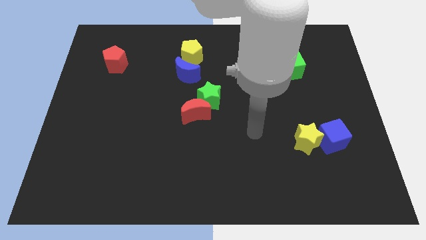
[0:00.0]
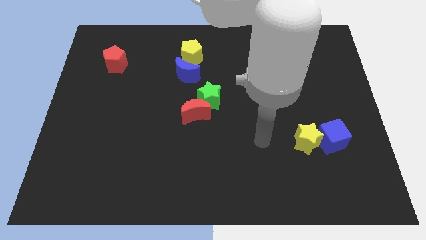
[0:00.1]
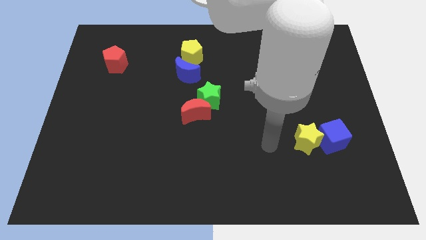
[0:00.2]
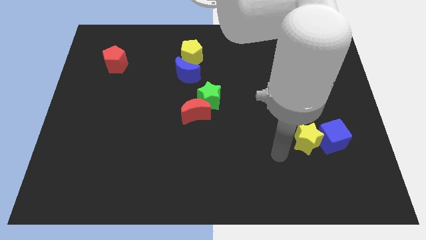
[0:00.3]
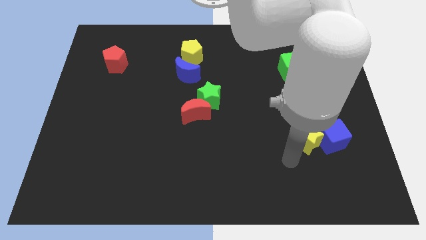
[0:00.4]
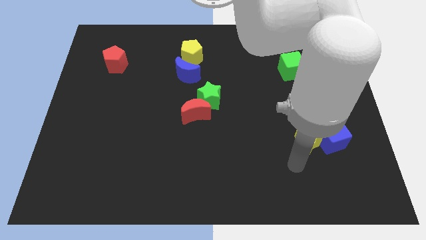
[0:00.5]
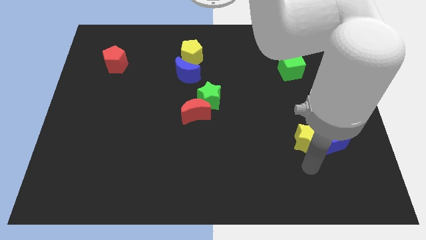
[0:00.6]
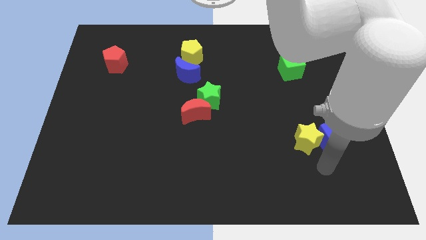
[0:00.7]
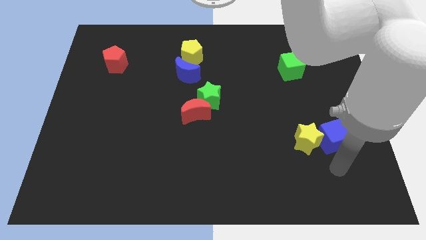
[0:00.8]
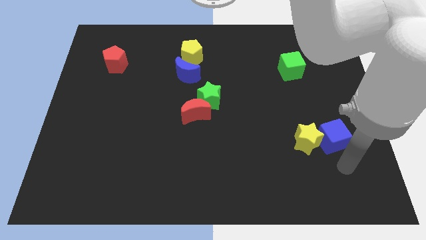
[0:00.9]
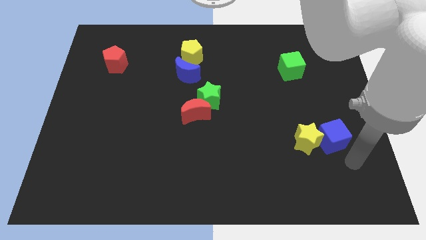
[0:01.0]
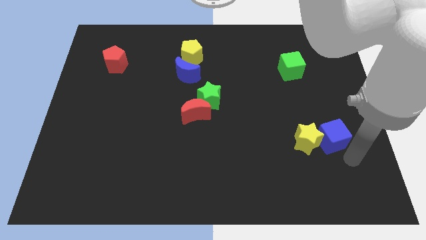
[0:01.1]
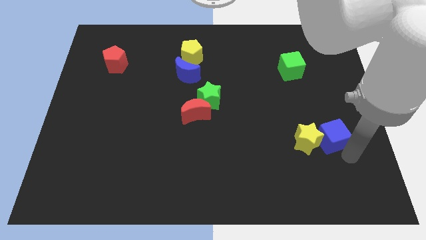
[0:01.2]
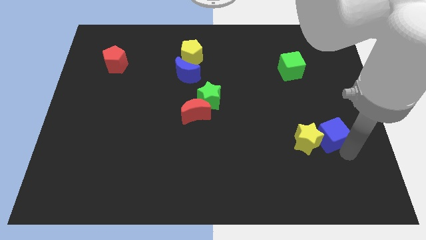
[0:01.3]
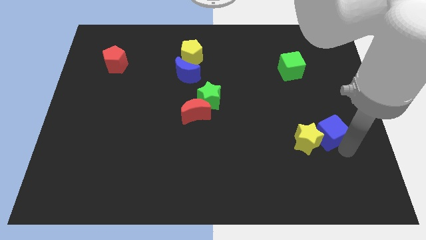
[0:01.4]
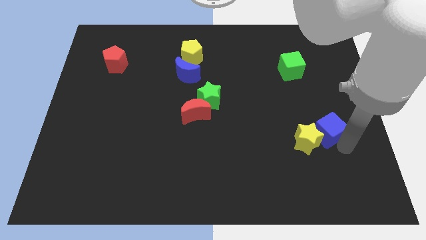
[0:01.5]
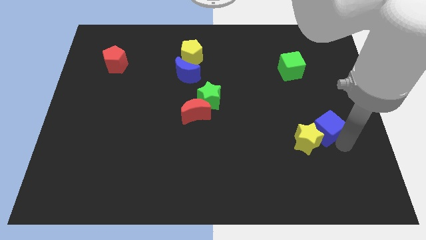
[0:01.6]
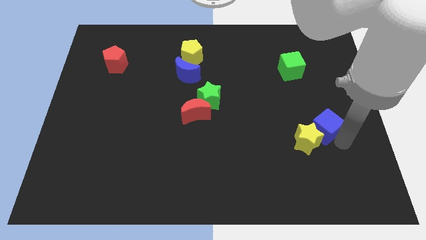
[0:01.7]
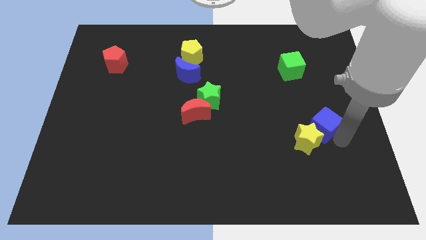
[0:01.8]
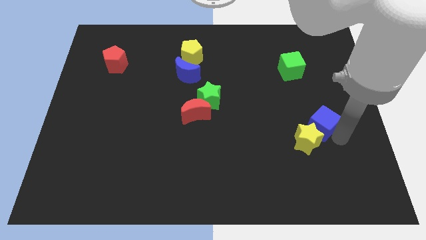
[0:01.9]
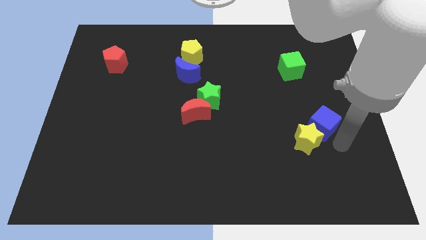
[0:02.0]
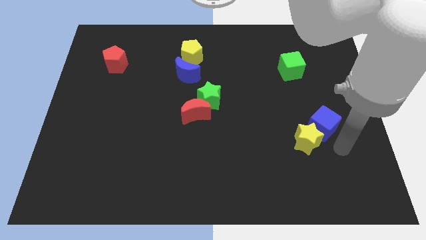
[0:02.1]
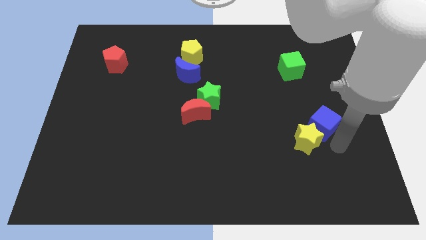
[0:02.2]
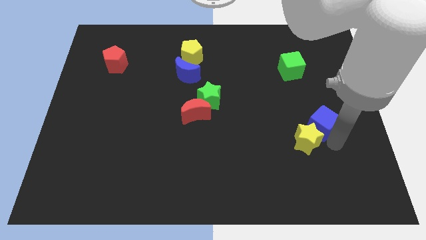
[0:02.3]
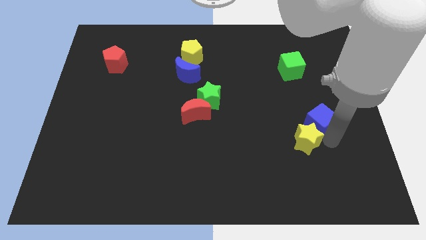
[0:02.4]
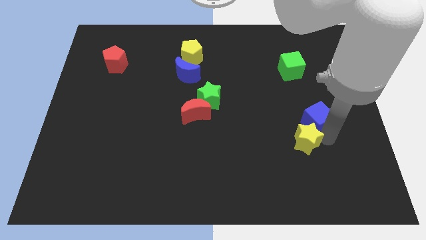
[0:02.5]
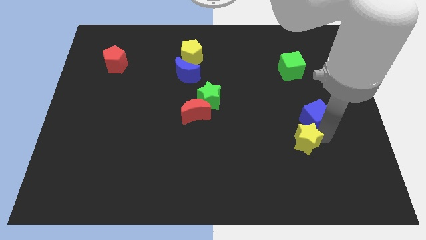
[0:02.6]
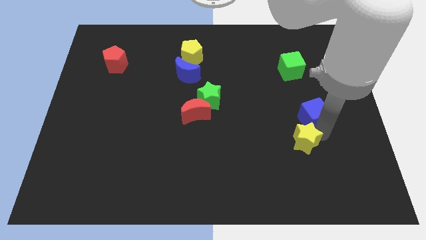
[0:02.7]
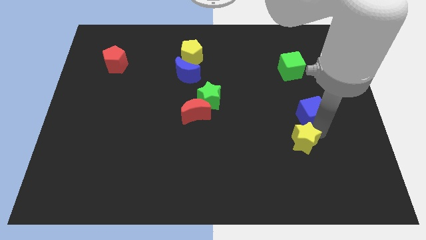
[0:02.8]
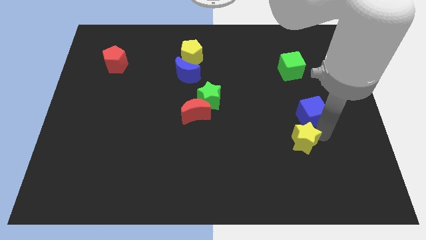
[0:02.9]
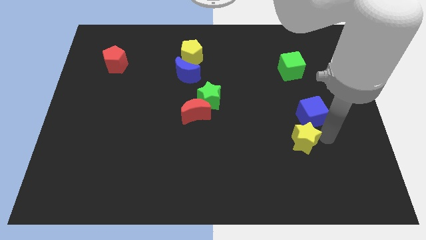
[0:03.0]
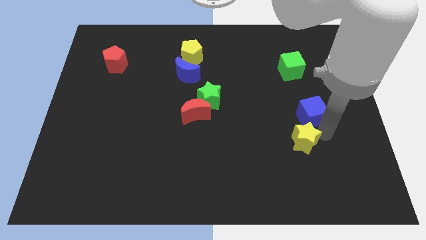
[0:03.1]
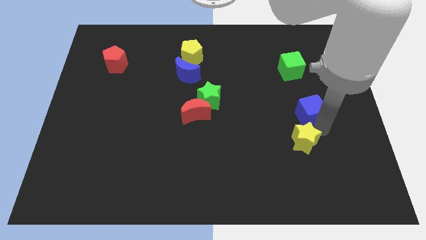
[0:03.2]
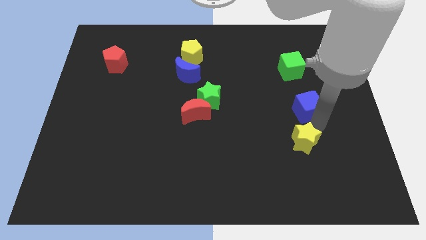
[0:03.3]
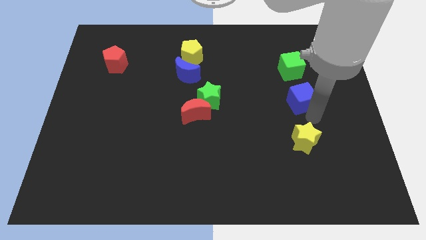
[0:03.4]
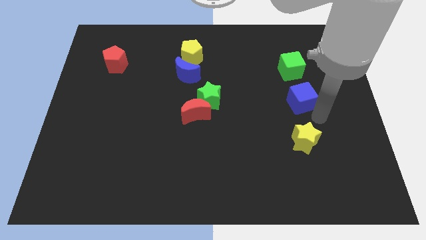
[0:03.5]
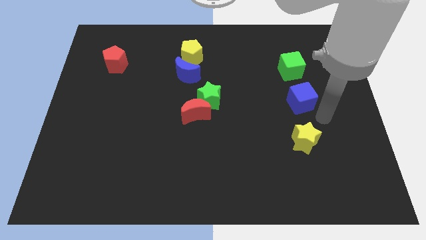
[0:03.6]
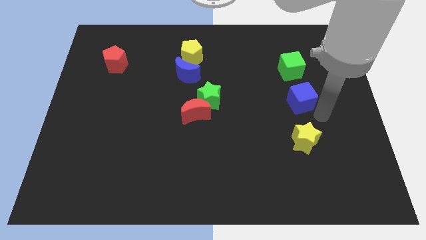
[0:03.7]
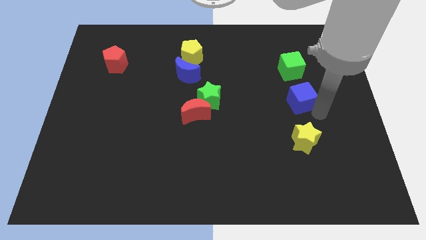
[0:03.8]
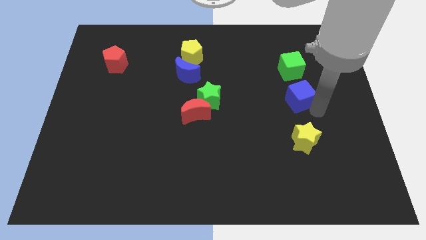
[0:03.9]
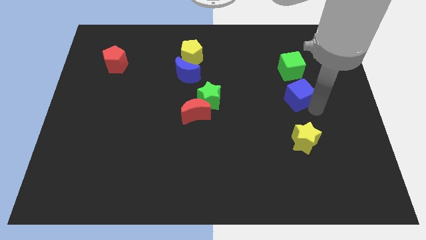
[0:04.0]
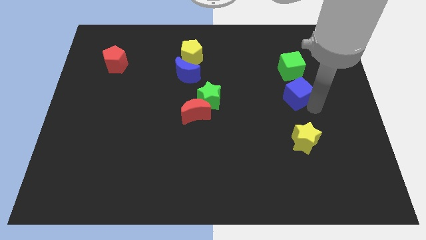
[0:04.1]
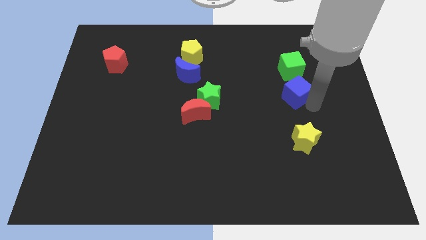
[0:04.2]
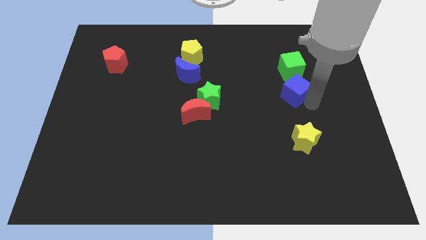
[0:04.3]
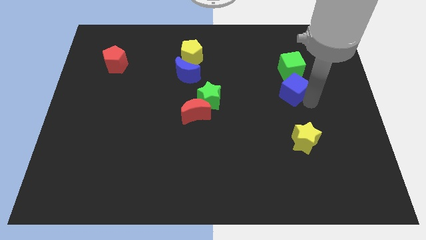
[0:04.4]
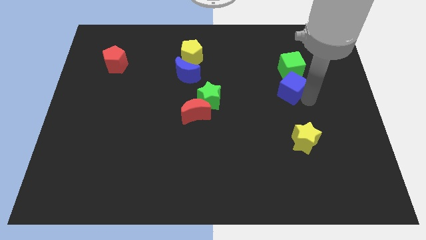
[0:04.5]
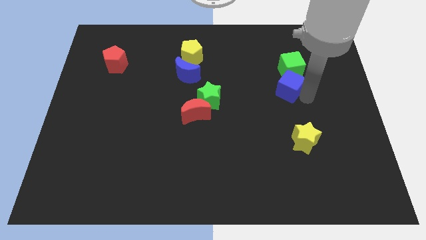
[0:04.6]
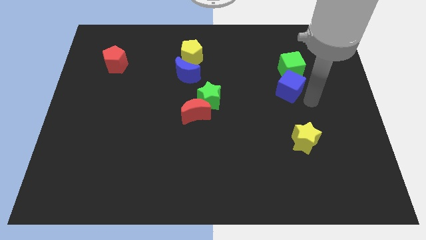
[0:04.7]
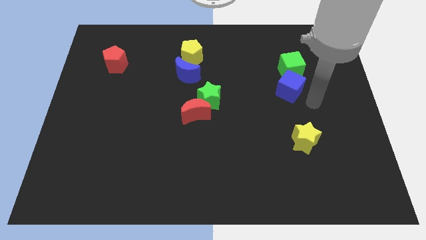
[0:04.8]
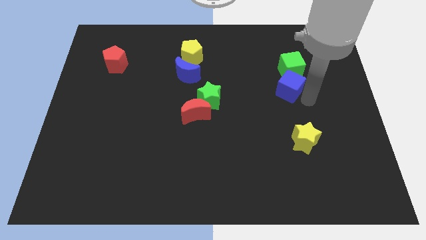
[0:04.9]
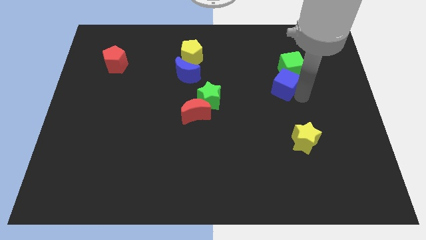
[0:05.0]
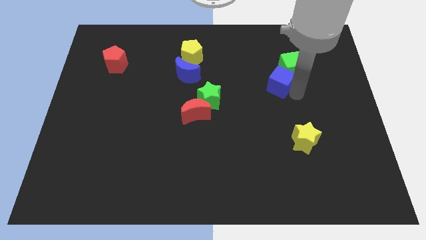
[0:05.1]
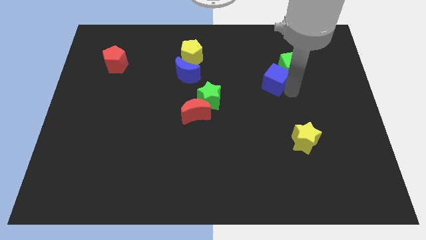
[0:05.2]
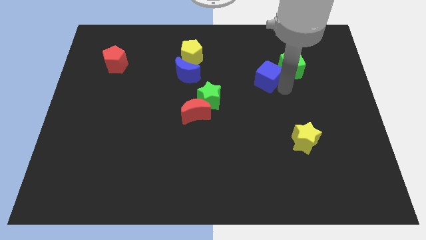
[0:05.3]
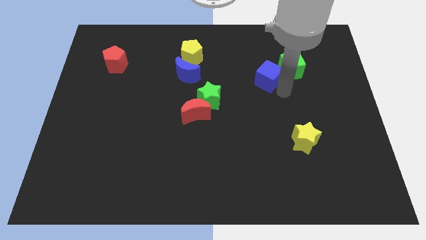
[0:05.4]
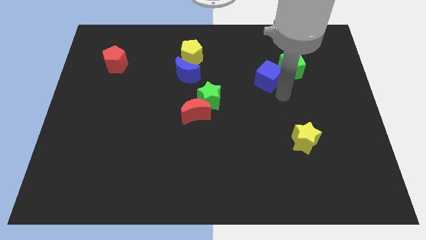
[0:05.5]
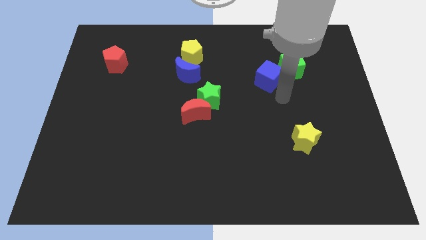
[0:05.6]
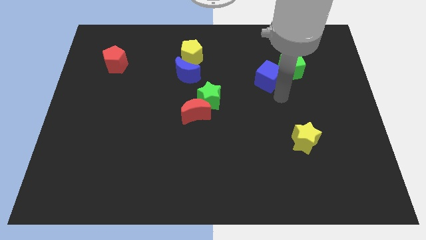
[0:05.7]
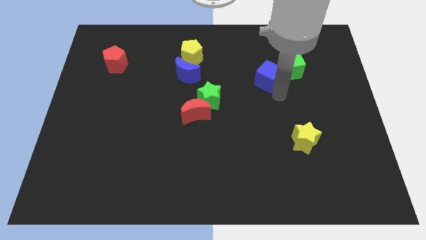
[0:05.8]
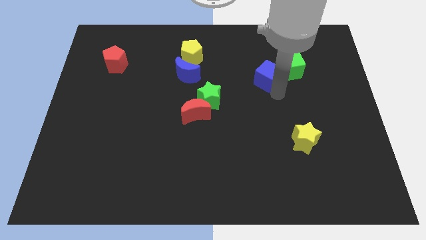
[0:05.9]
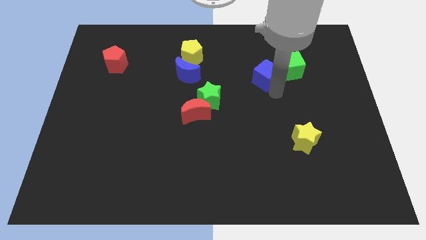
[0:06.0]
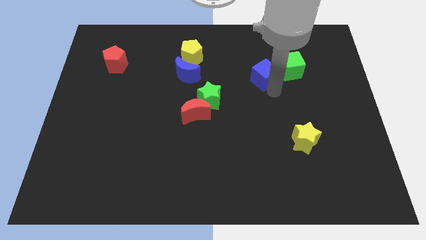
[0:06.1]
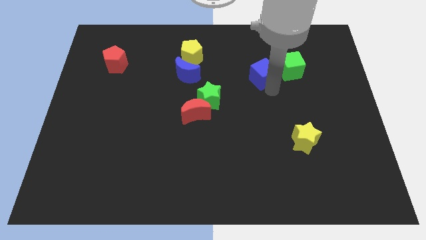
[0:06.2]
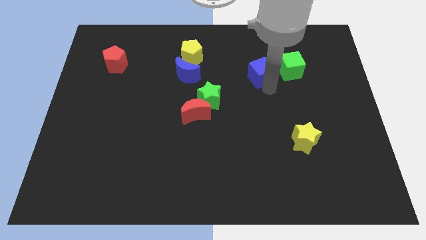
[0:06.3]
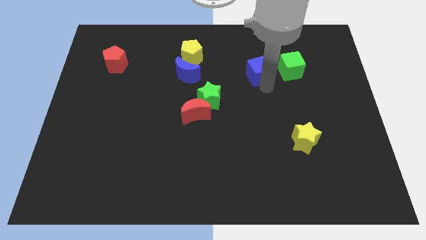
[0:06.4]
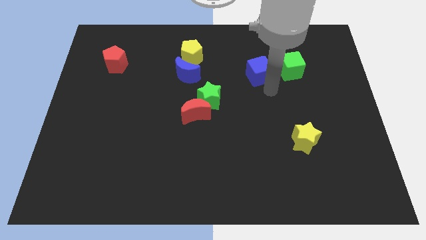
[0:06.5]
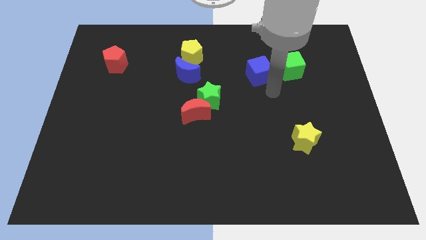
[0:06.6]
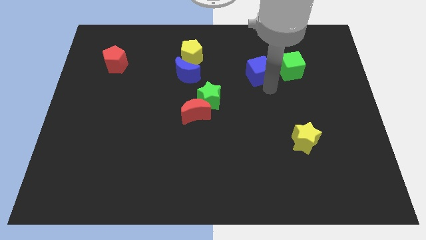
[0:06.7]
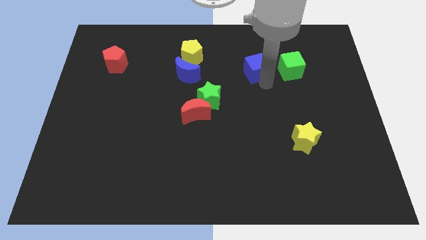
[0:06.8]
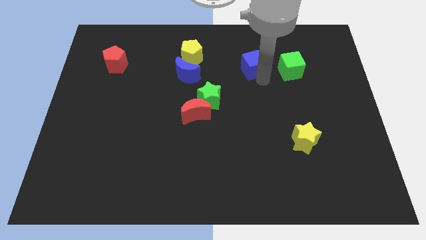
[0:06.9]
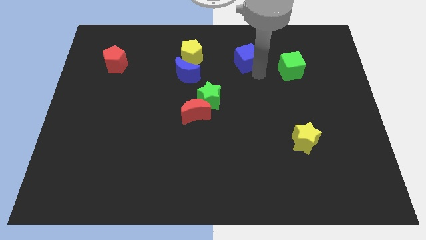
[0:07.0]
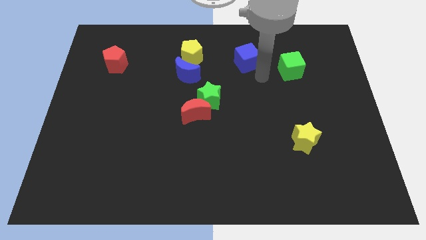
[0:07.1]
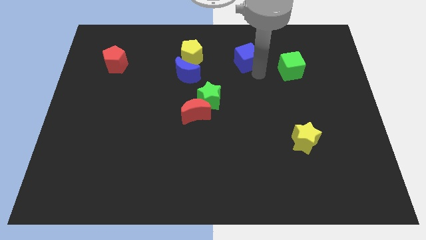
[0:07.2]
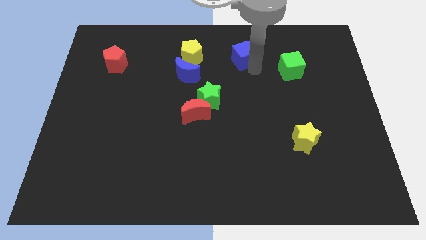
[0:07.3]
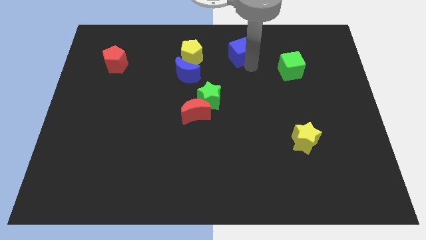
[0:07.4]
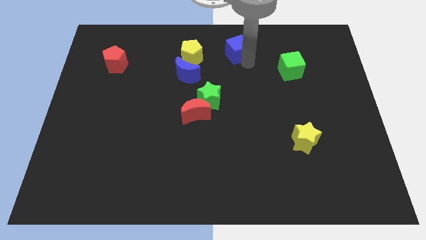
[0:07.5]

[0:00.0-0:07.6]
push the blue cube to the towards your base
